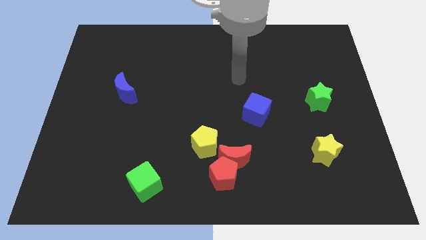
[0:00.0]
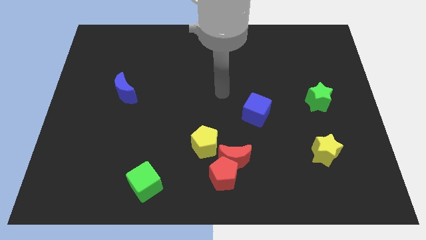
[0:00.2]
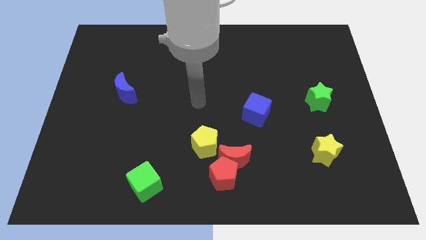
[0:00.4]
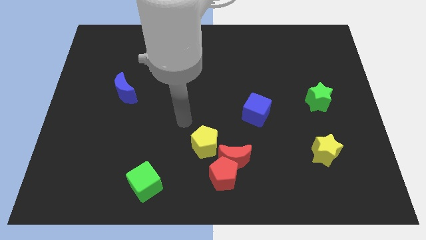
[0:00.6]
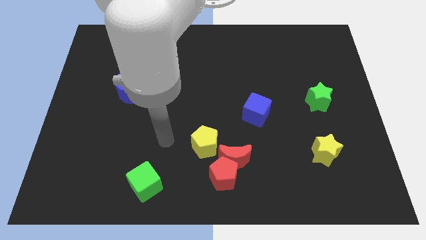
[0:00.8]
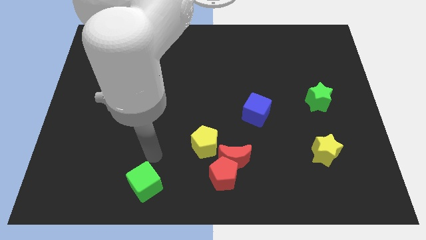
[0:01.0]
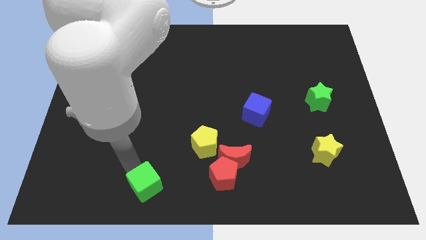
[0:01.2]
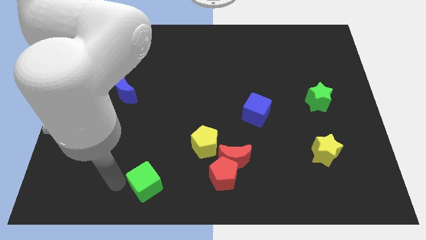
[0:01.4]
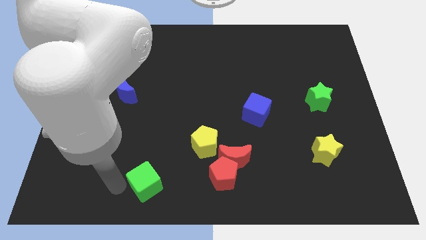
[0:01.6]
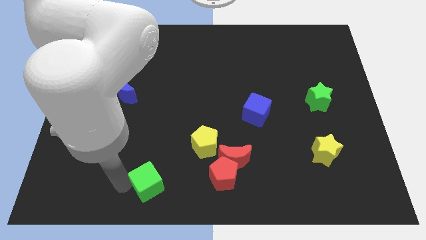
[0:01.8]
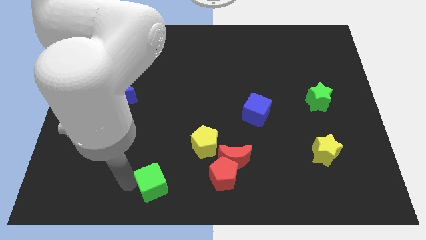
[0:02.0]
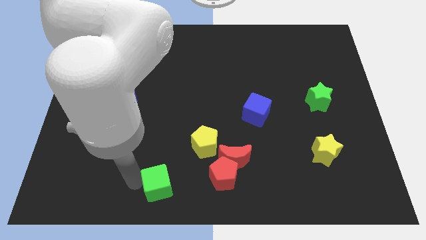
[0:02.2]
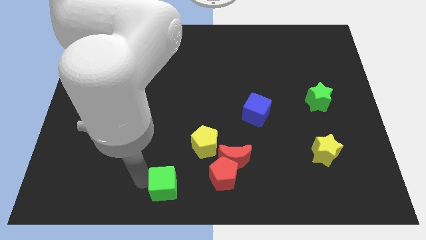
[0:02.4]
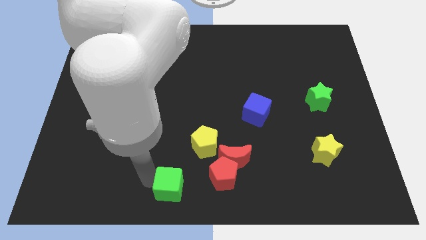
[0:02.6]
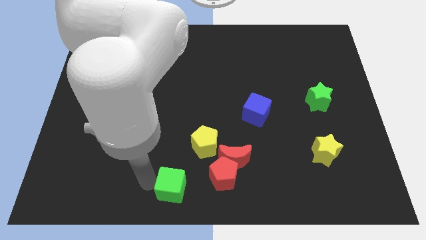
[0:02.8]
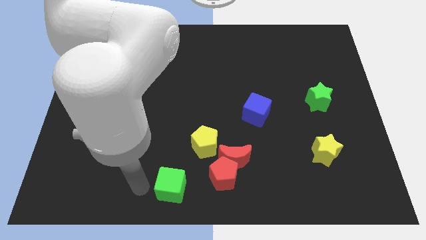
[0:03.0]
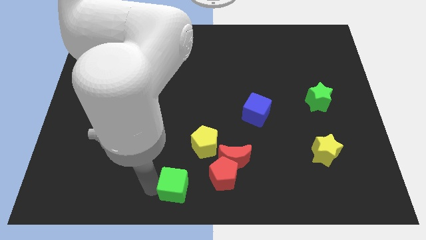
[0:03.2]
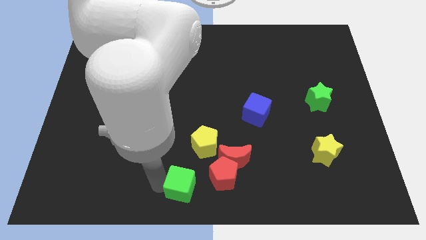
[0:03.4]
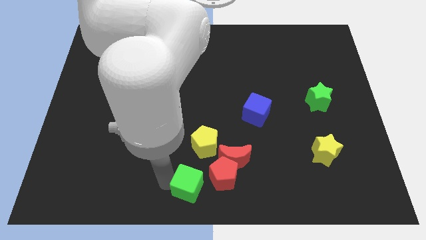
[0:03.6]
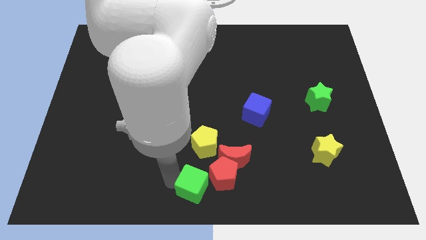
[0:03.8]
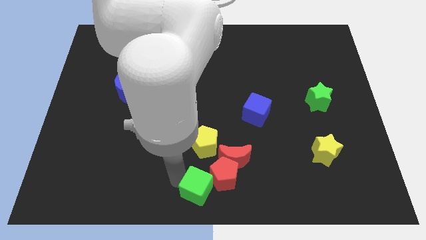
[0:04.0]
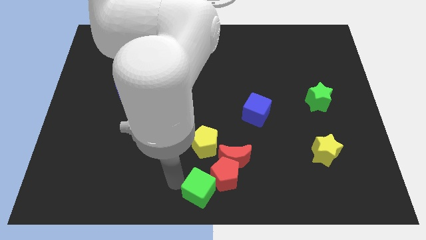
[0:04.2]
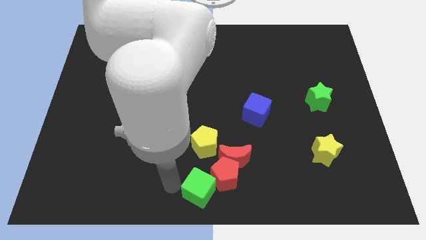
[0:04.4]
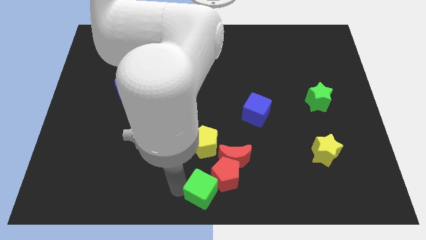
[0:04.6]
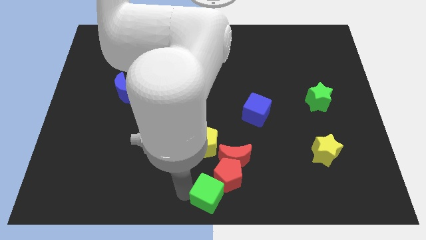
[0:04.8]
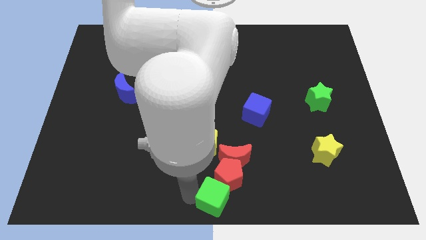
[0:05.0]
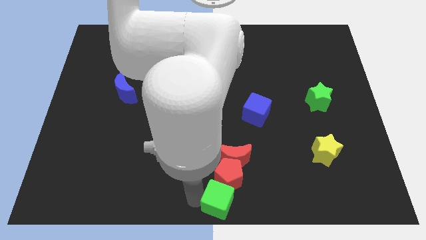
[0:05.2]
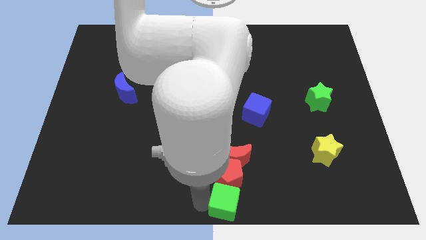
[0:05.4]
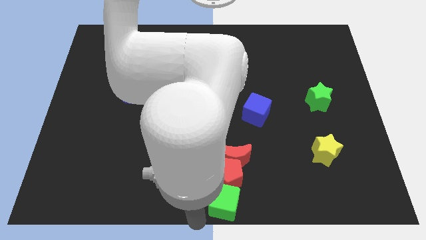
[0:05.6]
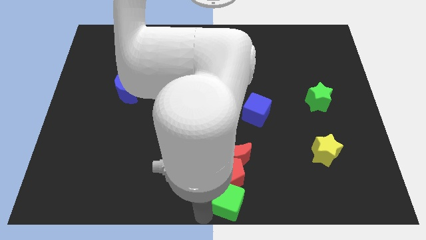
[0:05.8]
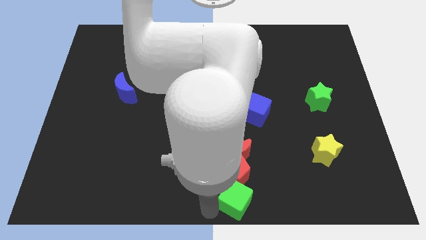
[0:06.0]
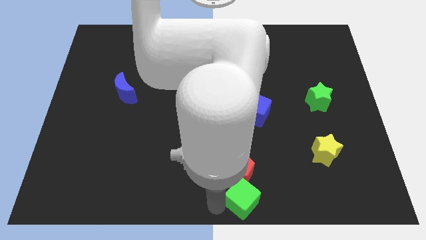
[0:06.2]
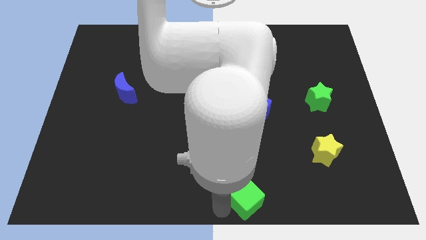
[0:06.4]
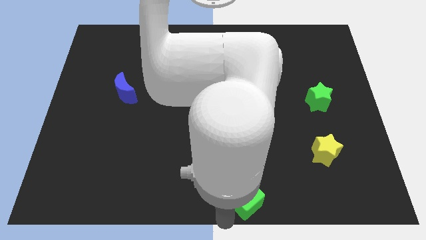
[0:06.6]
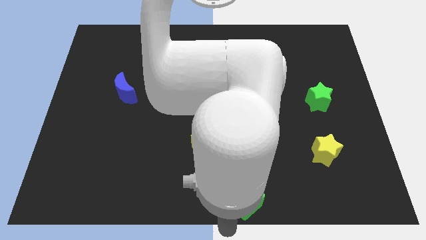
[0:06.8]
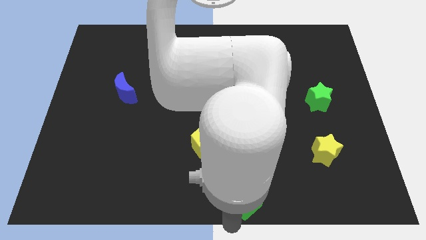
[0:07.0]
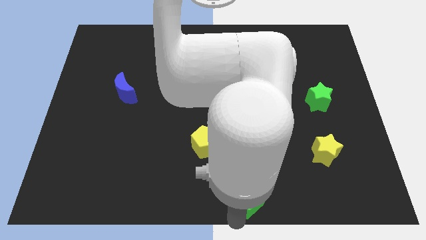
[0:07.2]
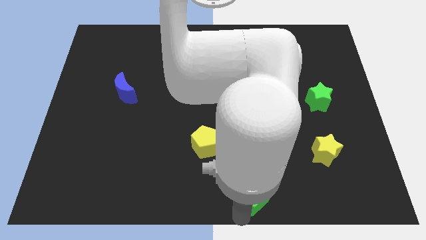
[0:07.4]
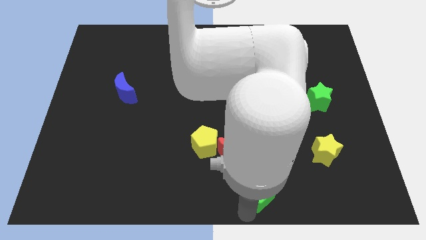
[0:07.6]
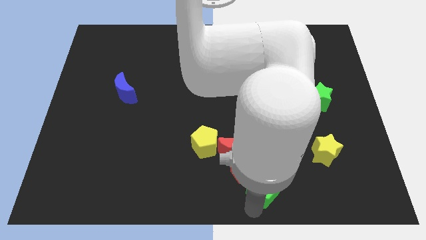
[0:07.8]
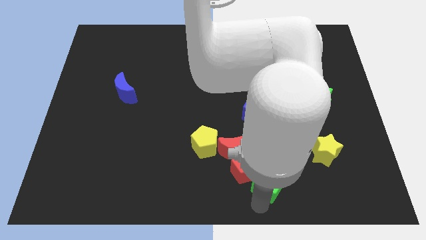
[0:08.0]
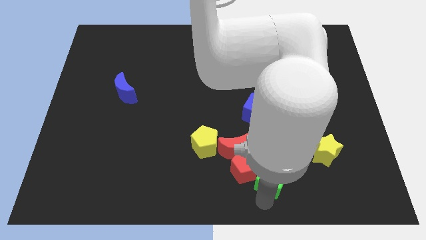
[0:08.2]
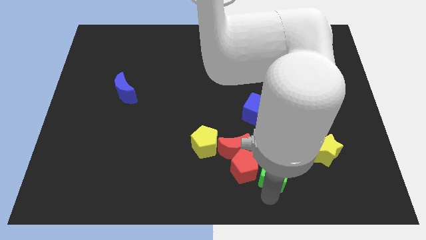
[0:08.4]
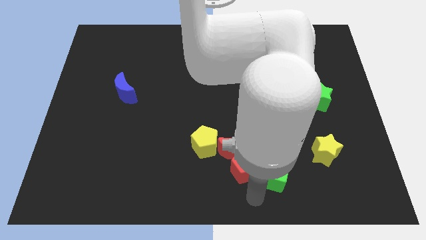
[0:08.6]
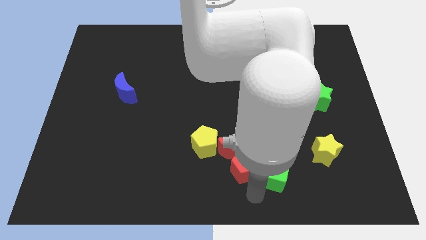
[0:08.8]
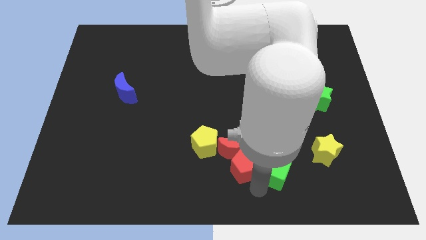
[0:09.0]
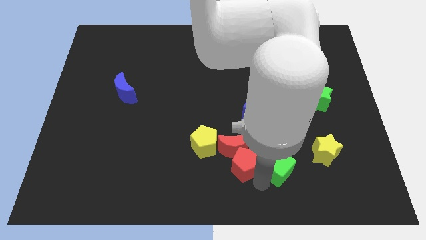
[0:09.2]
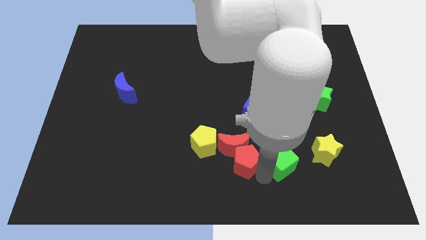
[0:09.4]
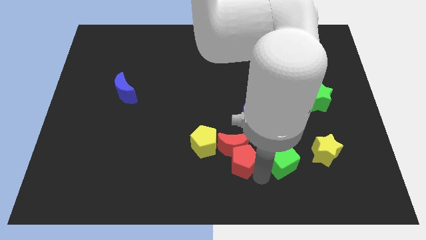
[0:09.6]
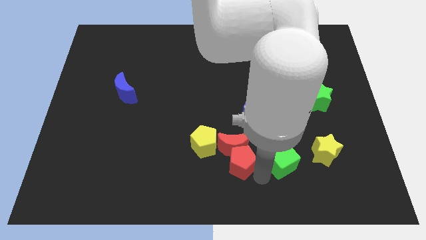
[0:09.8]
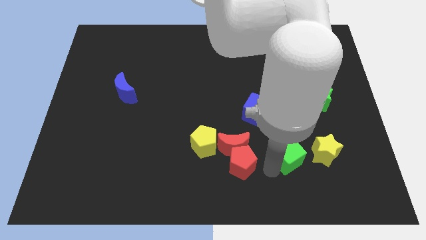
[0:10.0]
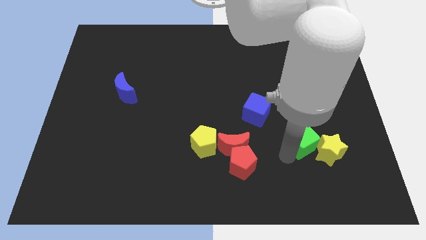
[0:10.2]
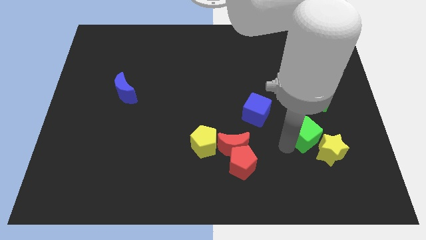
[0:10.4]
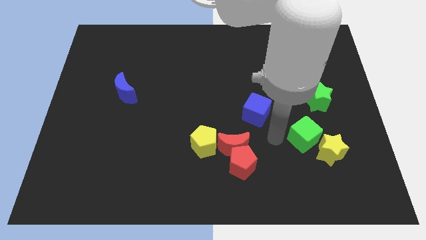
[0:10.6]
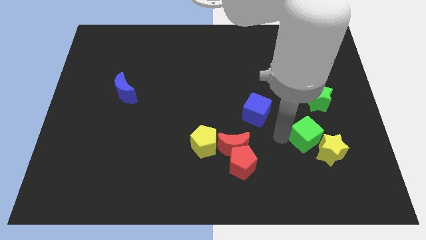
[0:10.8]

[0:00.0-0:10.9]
move the green cube to the bottom side of the green star

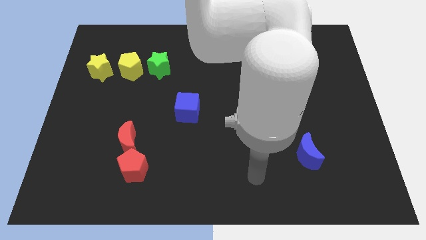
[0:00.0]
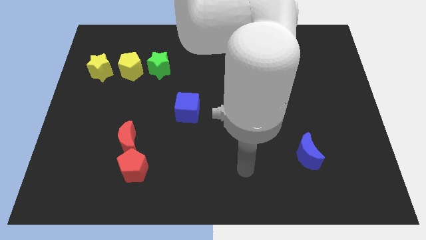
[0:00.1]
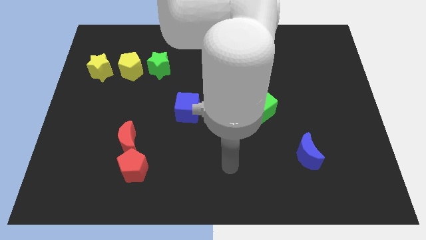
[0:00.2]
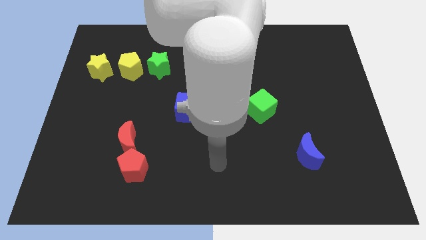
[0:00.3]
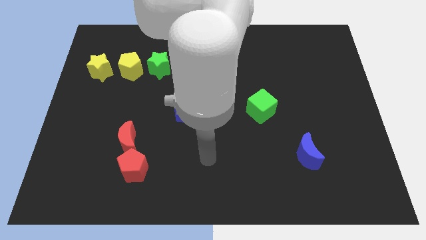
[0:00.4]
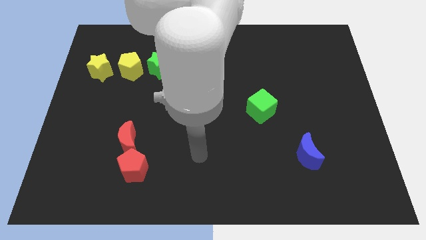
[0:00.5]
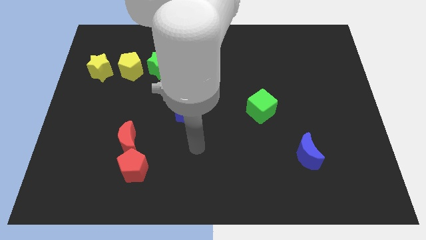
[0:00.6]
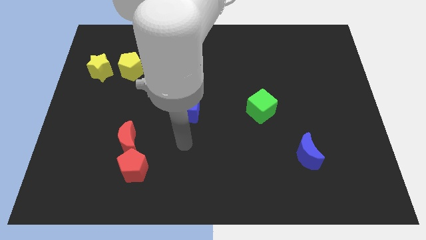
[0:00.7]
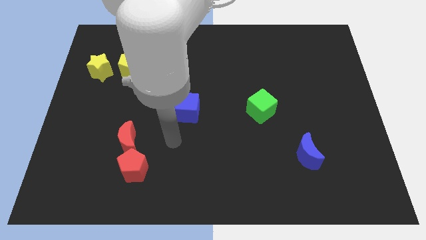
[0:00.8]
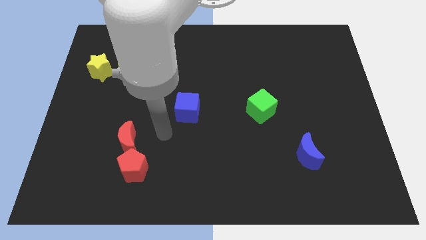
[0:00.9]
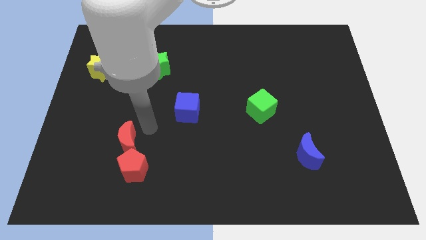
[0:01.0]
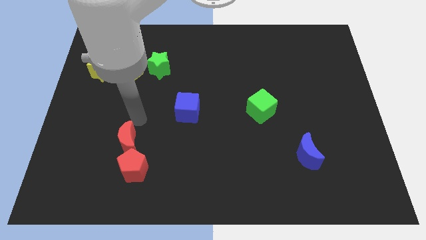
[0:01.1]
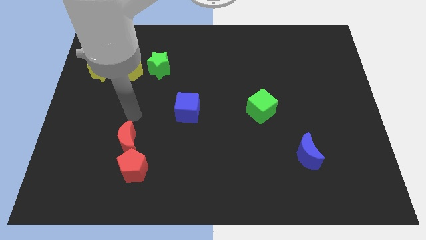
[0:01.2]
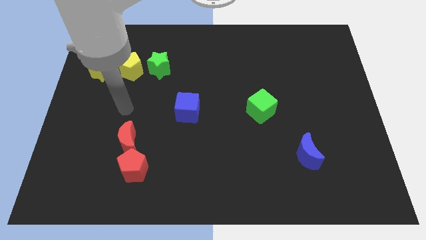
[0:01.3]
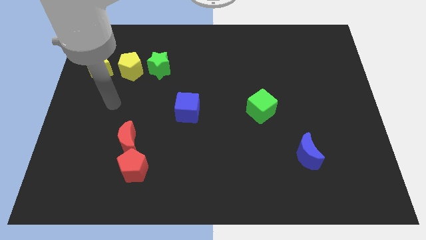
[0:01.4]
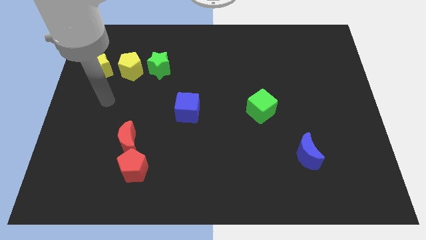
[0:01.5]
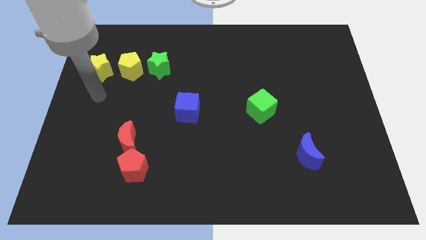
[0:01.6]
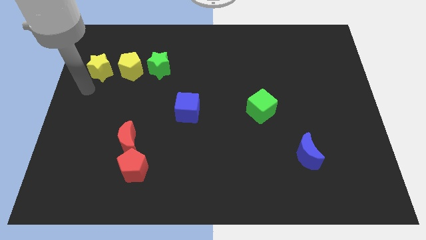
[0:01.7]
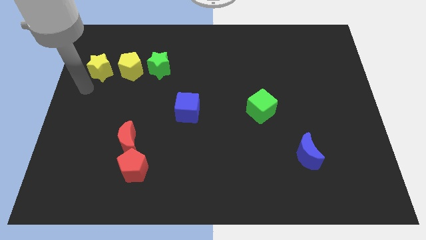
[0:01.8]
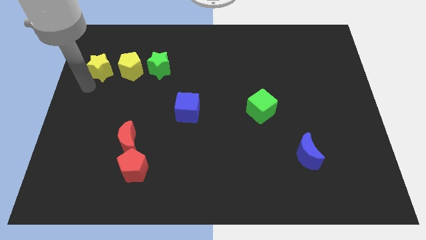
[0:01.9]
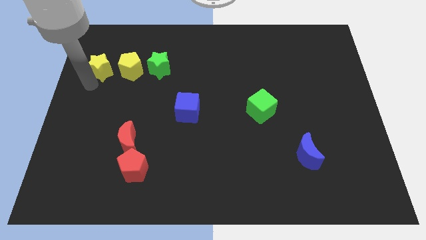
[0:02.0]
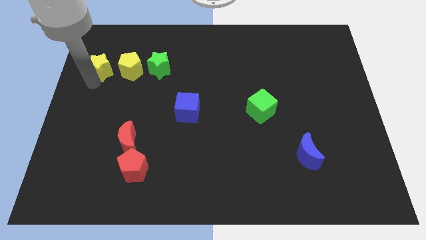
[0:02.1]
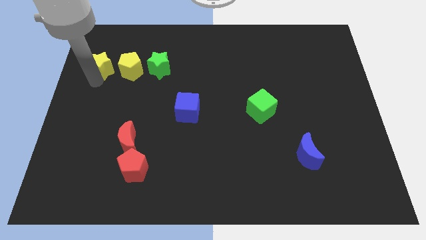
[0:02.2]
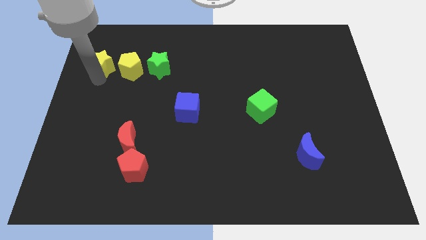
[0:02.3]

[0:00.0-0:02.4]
put the yellow star diagonally up and to the left of the yellow pentagon
